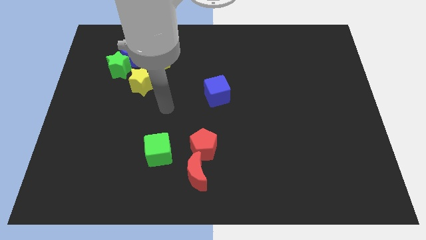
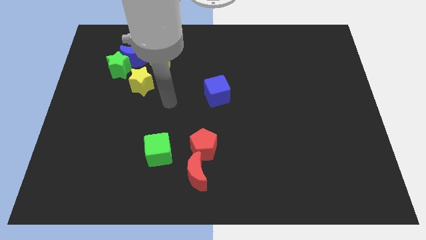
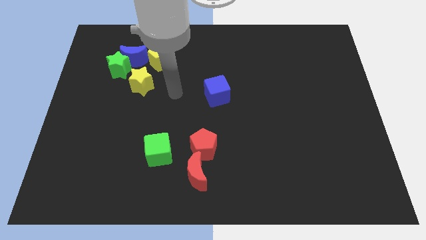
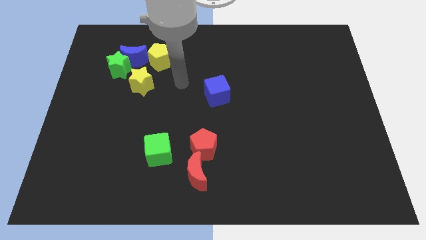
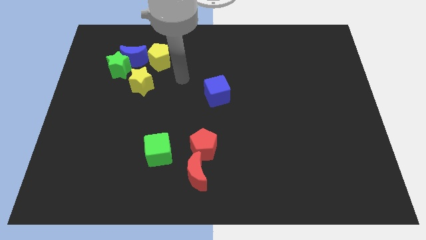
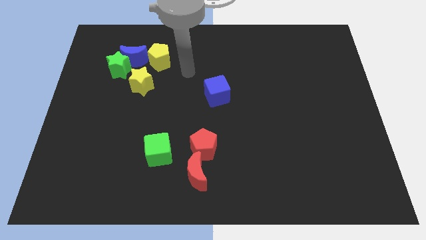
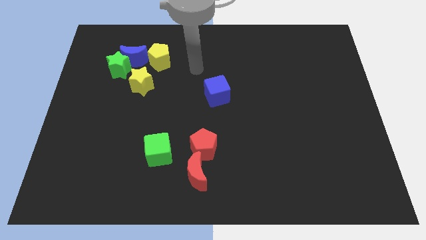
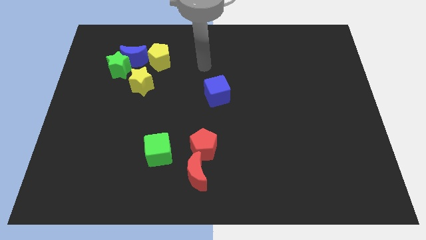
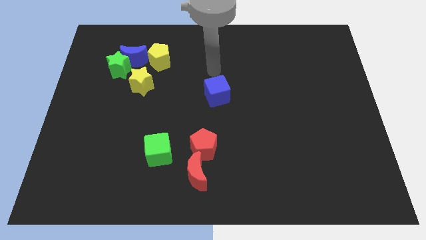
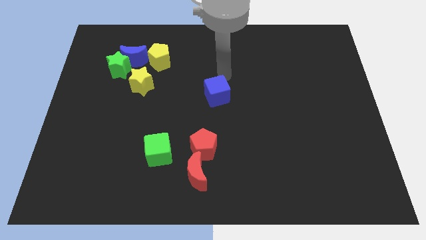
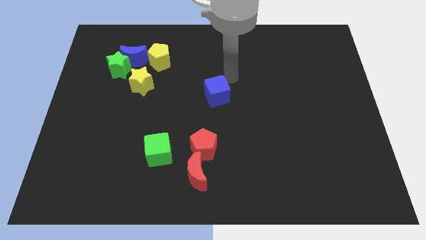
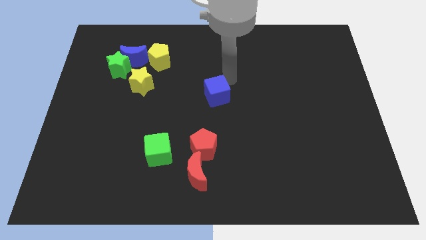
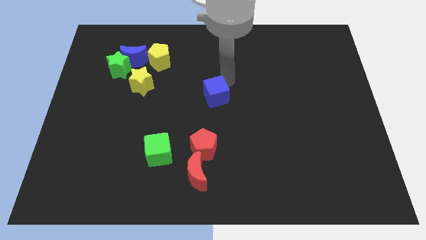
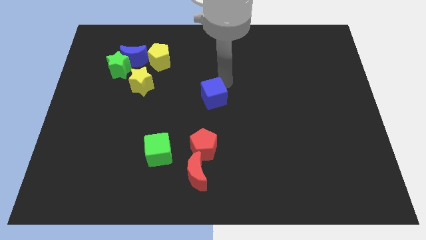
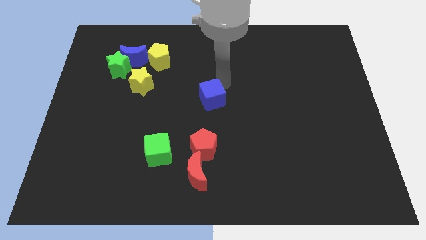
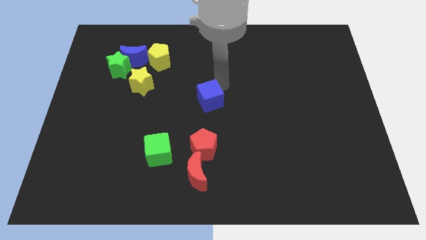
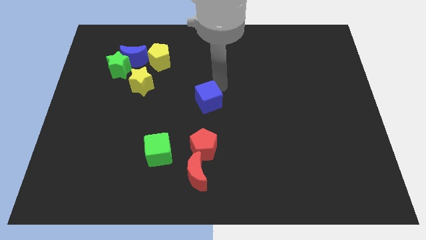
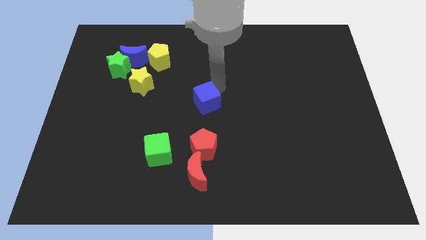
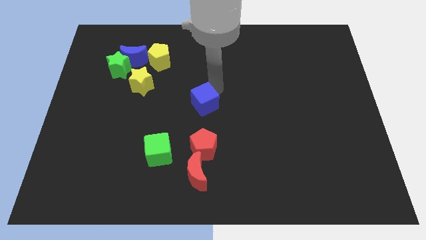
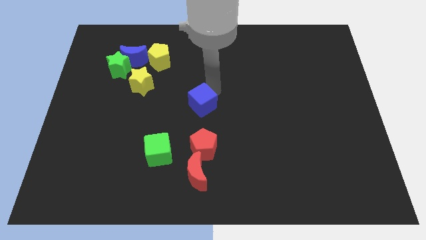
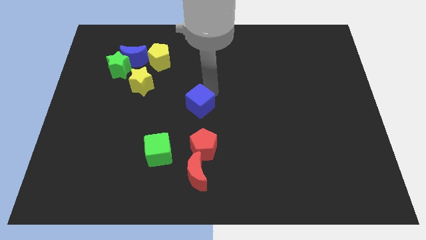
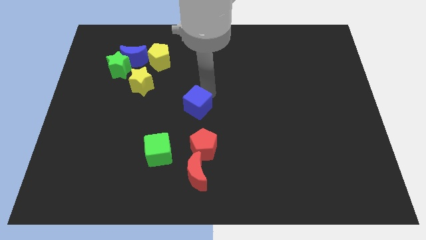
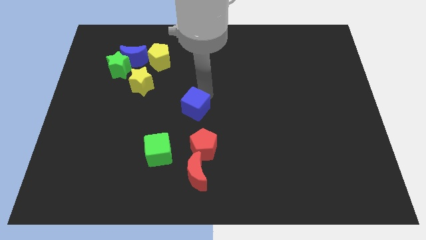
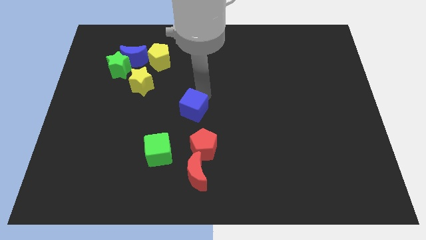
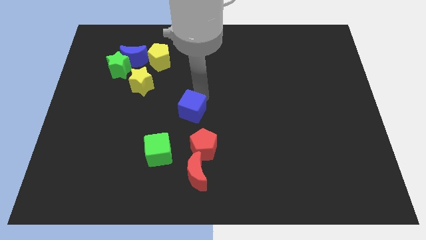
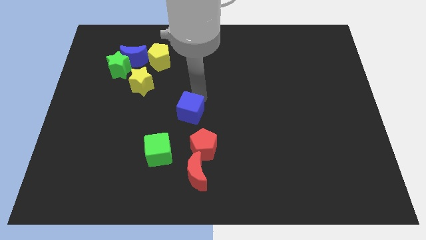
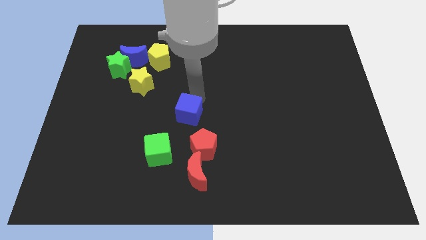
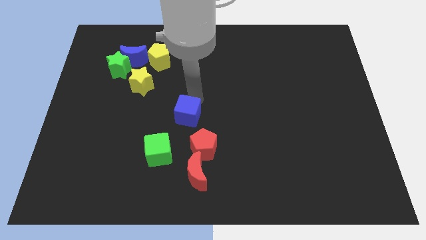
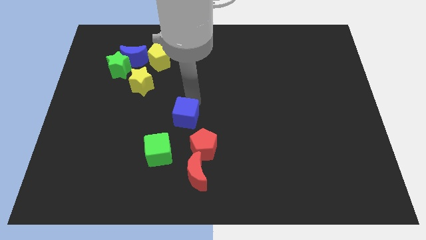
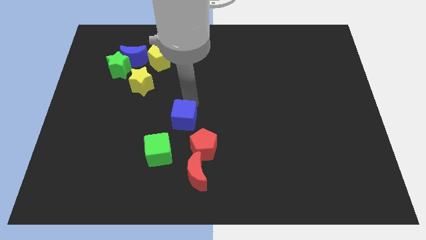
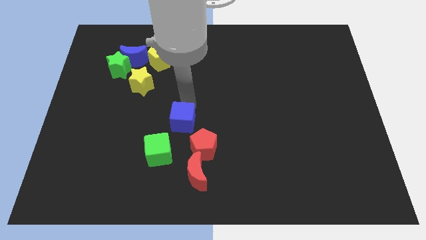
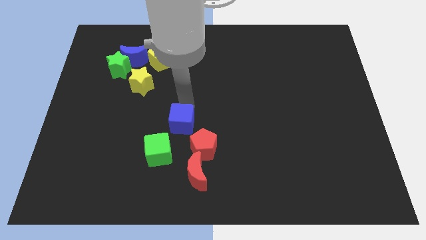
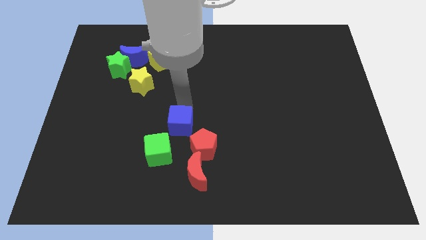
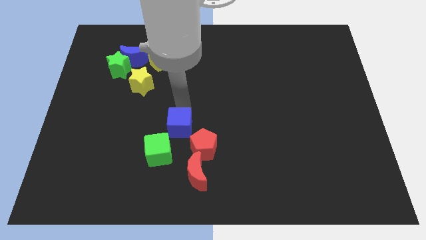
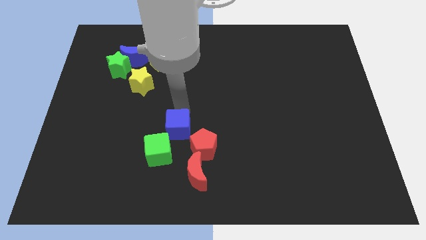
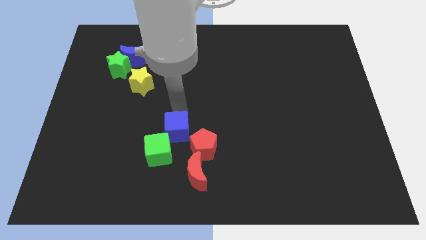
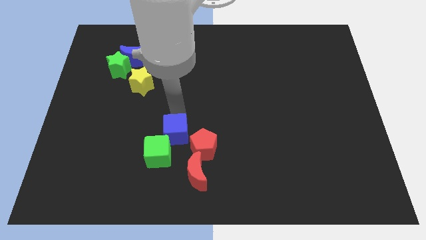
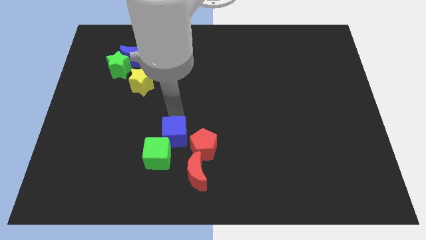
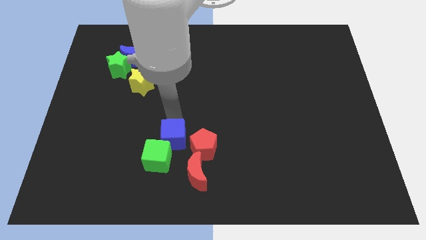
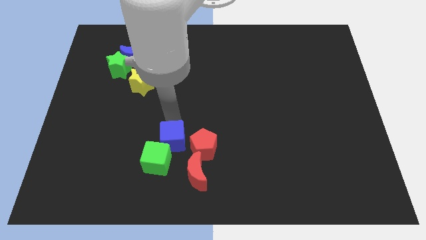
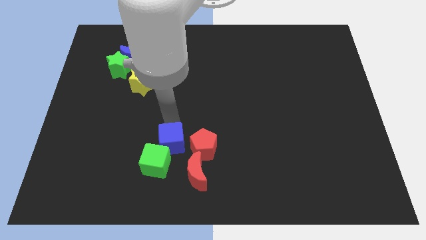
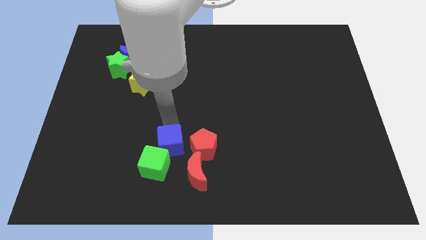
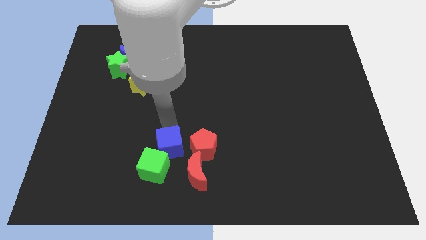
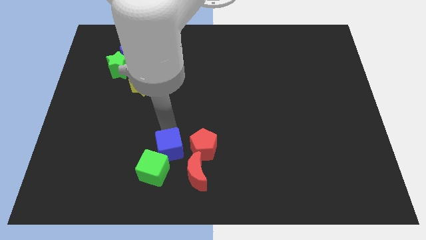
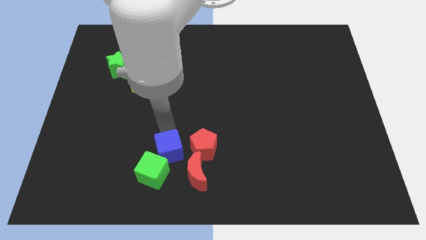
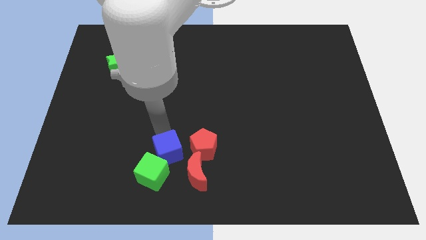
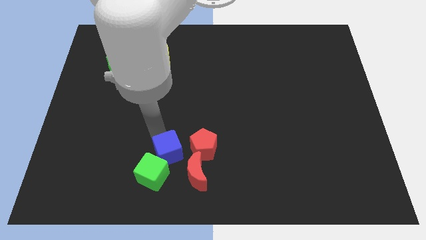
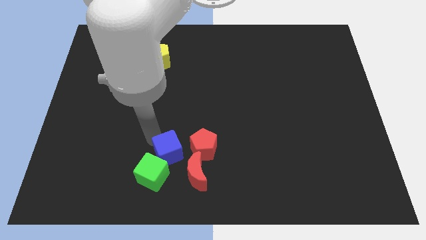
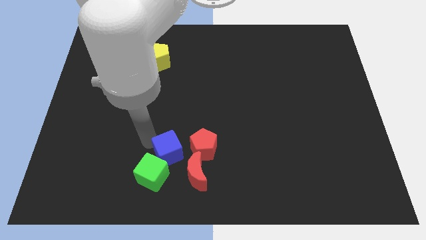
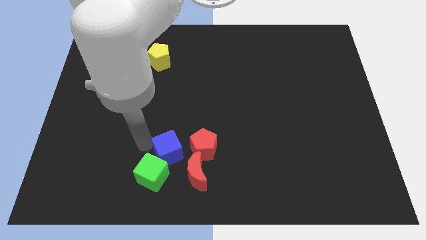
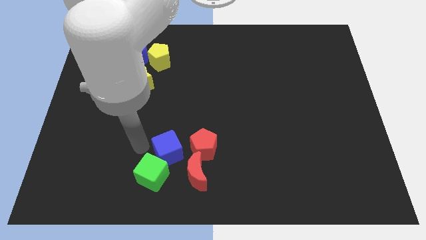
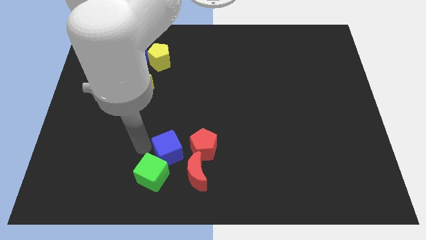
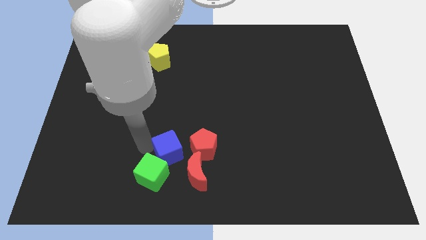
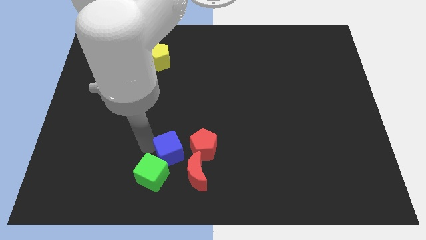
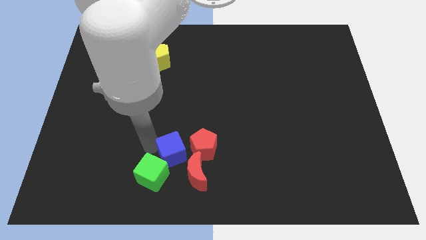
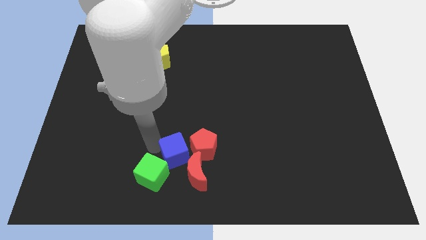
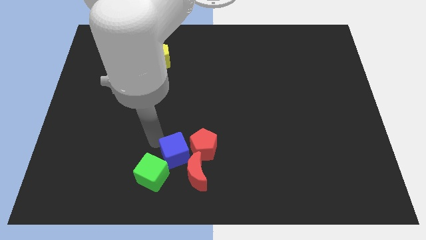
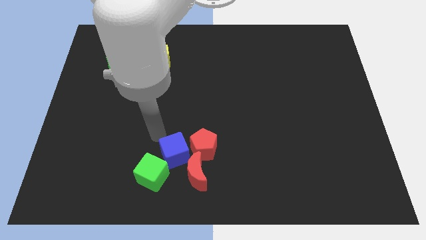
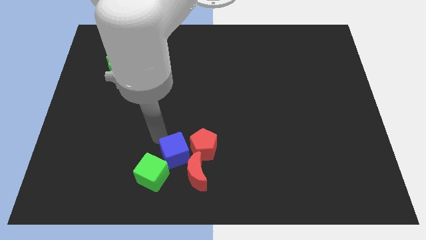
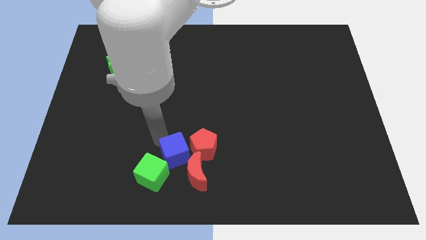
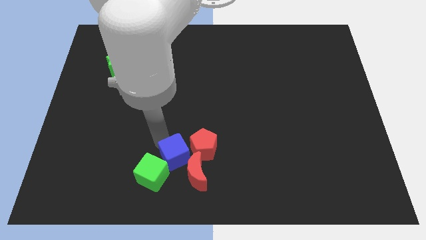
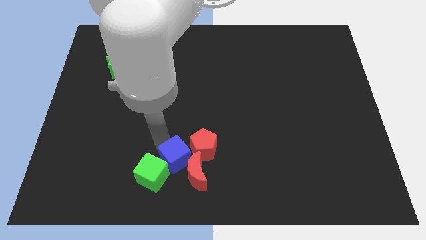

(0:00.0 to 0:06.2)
slide the blue cube to the red moon

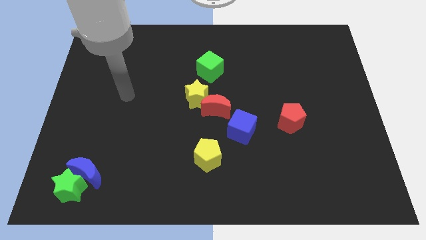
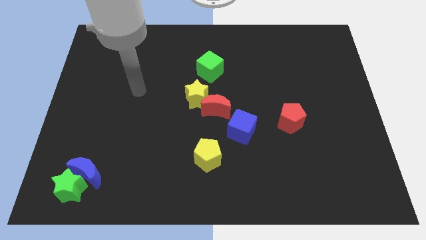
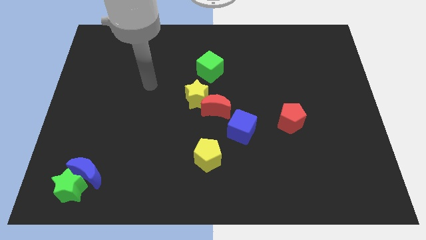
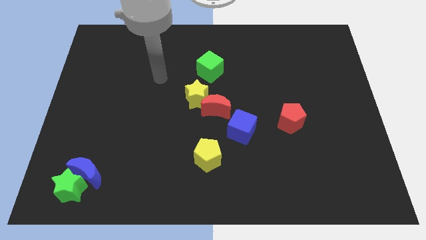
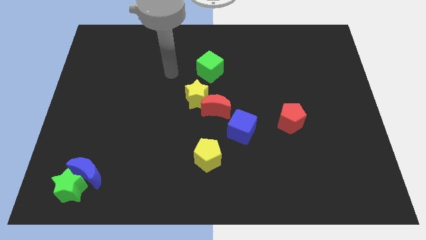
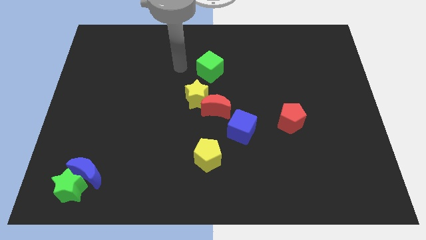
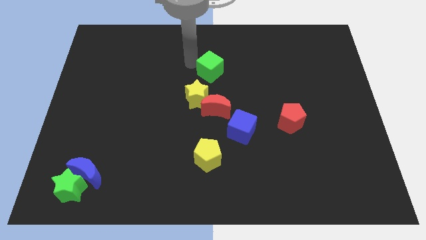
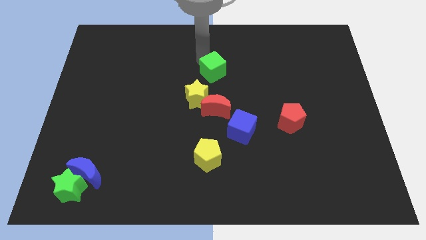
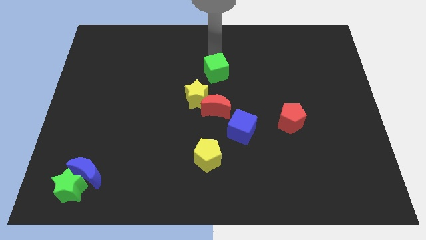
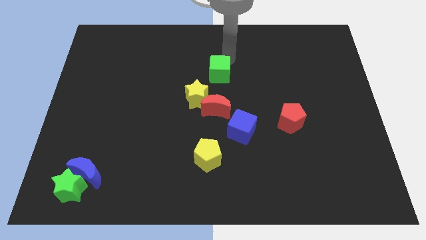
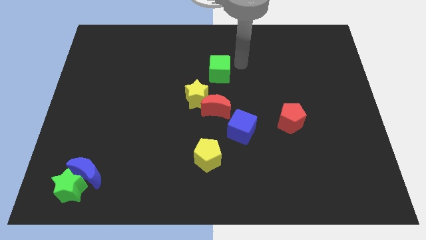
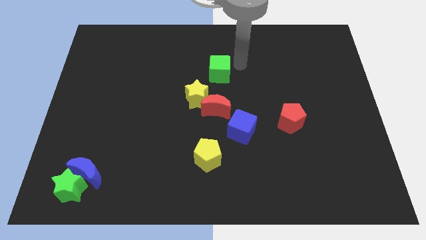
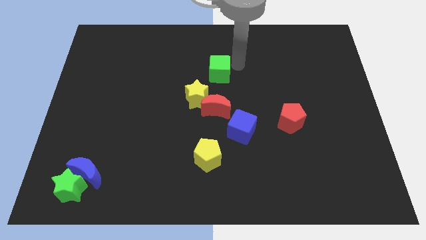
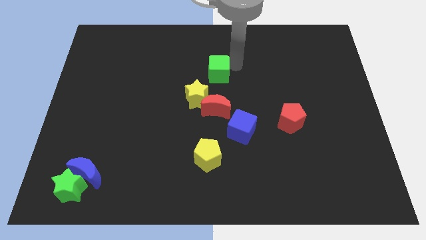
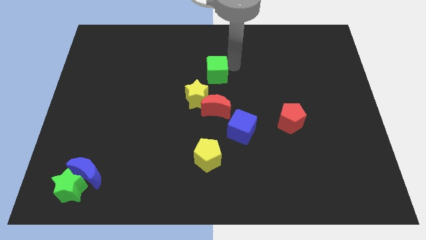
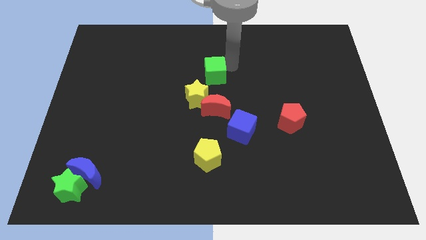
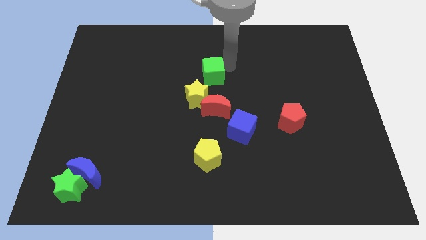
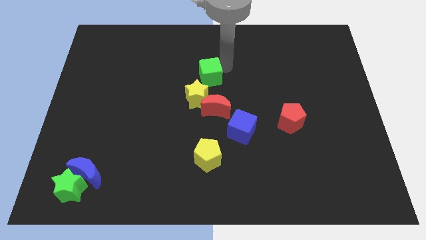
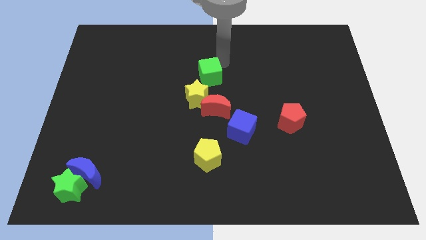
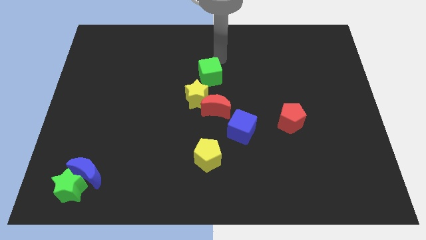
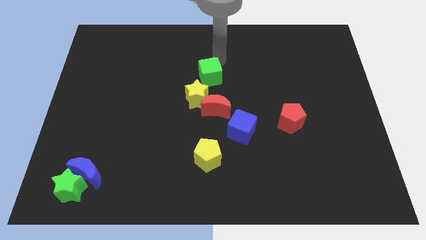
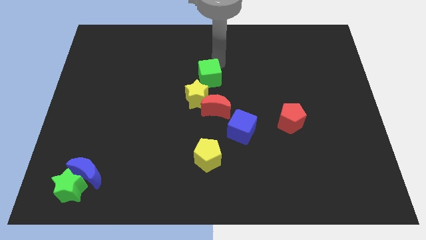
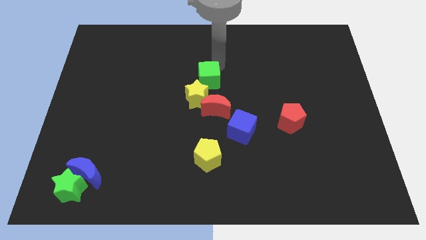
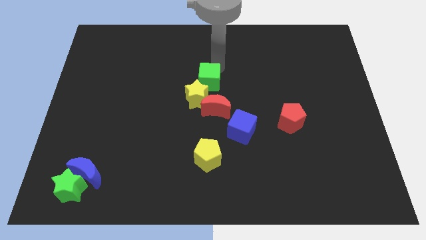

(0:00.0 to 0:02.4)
put the green cube towards the yellow star
